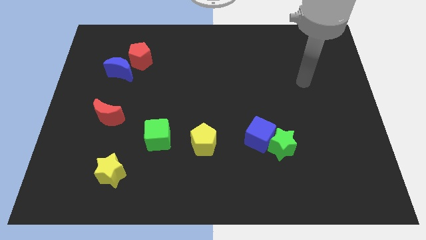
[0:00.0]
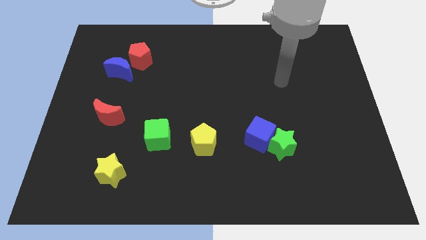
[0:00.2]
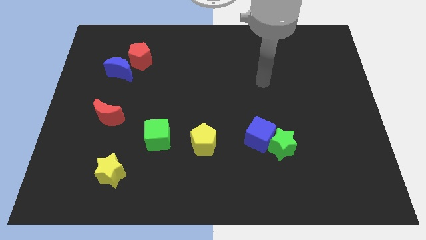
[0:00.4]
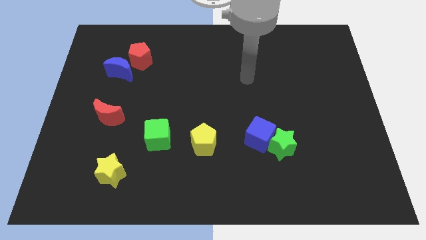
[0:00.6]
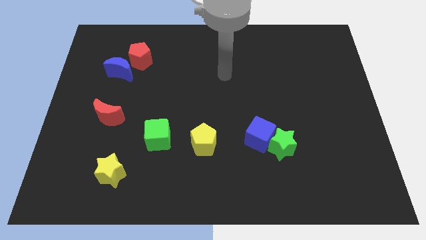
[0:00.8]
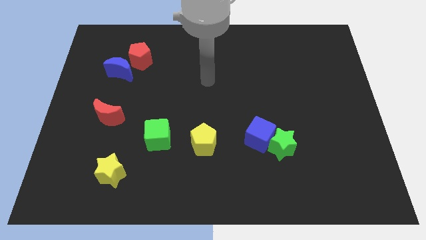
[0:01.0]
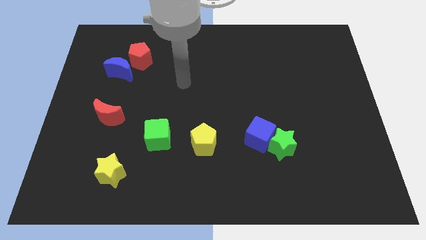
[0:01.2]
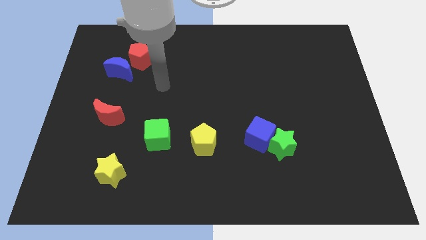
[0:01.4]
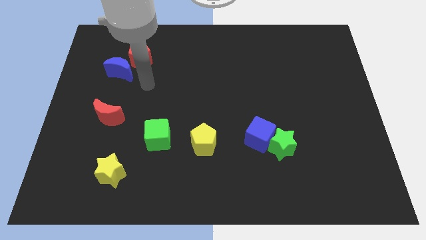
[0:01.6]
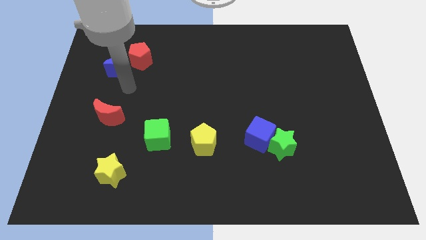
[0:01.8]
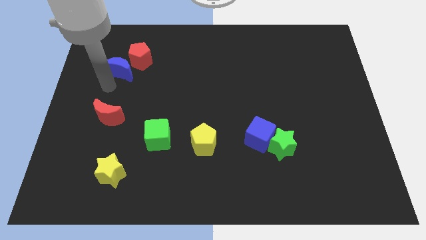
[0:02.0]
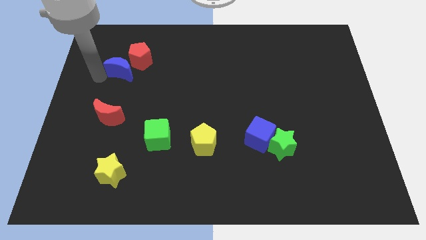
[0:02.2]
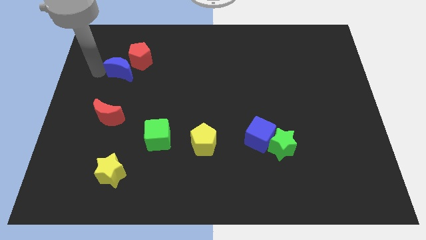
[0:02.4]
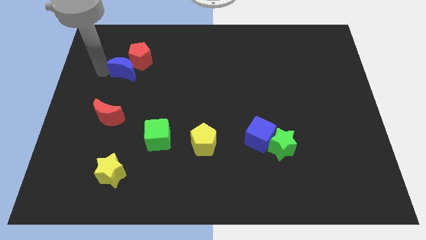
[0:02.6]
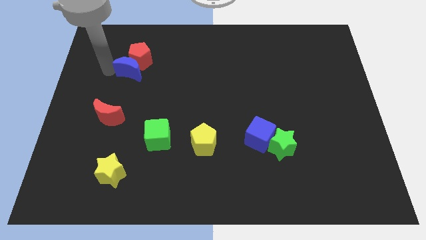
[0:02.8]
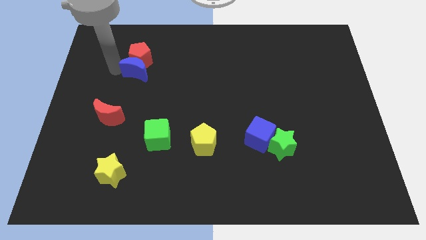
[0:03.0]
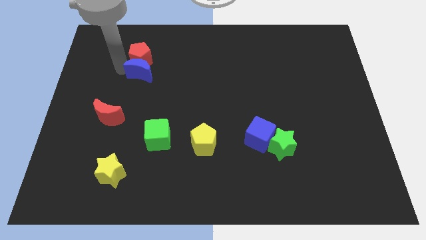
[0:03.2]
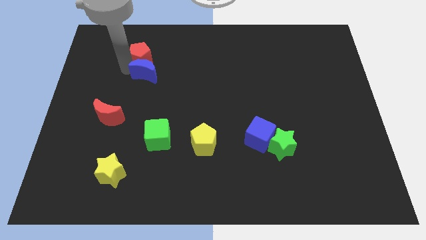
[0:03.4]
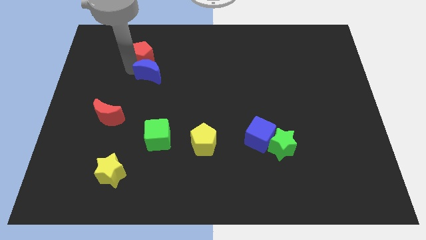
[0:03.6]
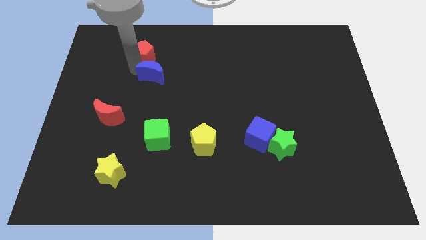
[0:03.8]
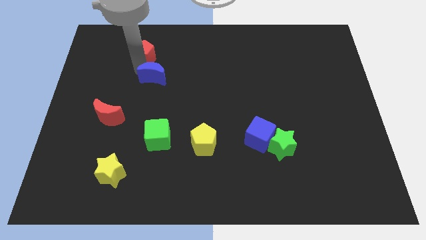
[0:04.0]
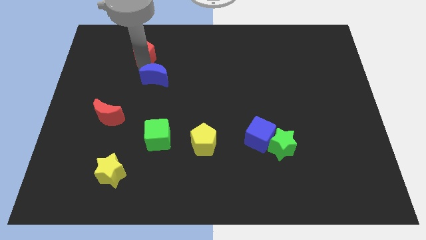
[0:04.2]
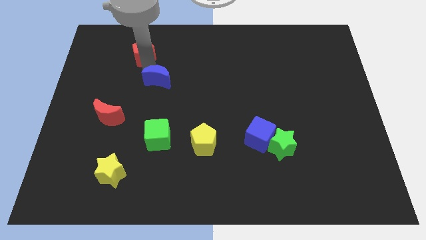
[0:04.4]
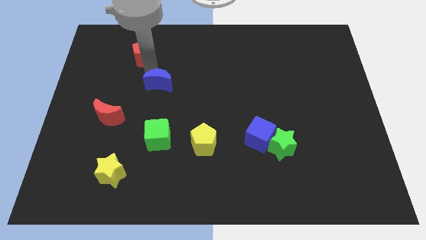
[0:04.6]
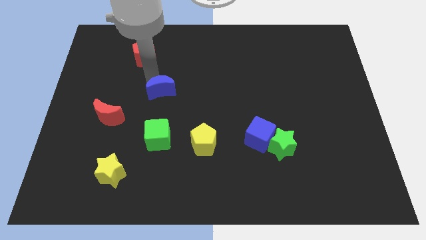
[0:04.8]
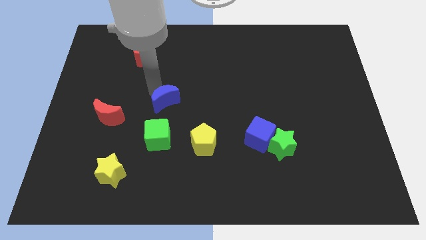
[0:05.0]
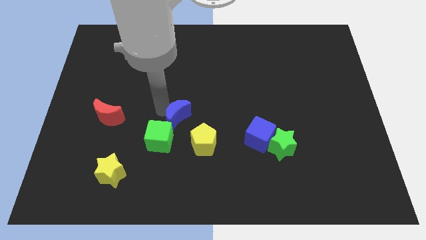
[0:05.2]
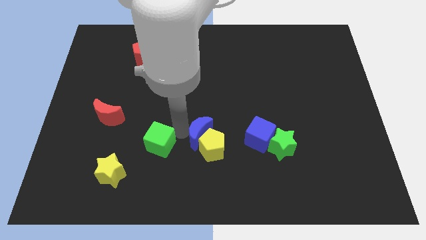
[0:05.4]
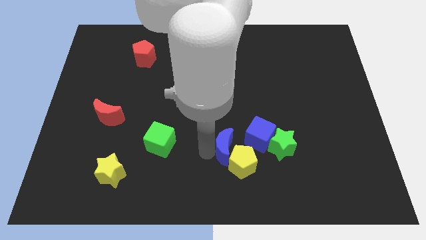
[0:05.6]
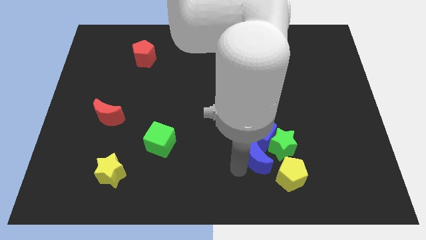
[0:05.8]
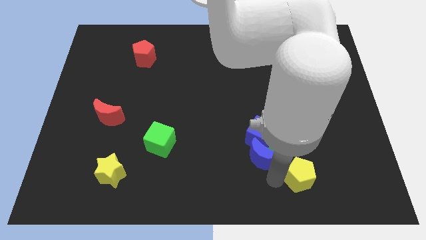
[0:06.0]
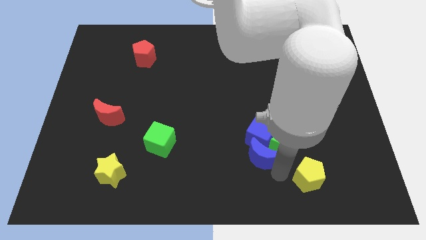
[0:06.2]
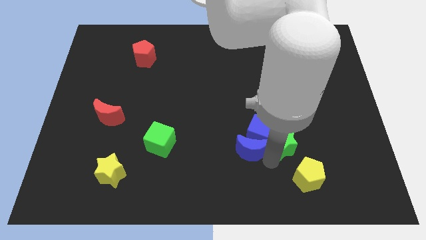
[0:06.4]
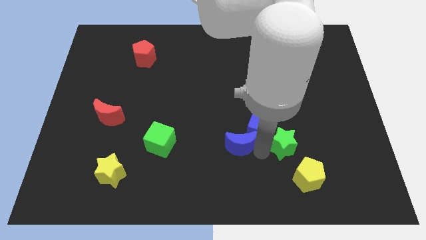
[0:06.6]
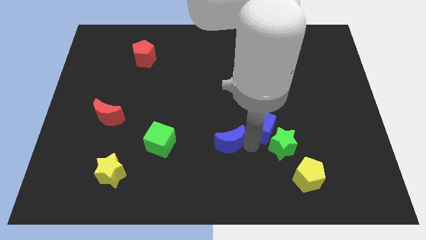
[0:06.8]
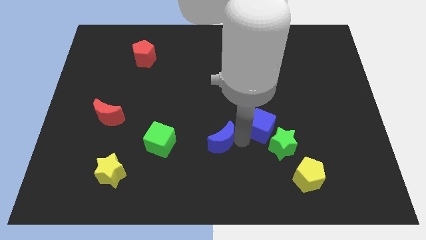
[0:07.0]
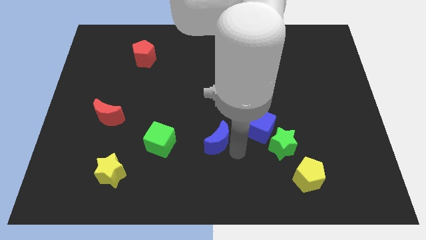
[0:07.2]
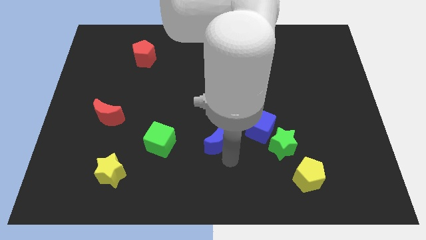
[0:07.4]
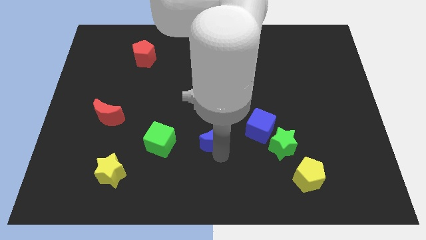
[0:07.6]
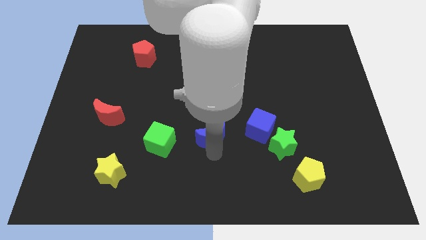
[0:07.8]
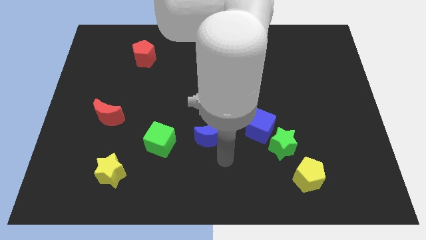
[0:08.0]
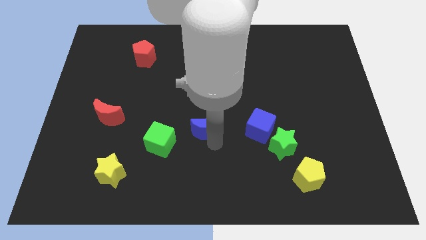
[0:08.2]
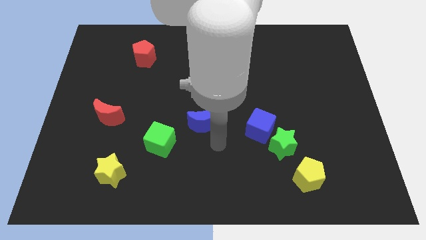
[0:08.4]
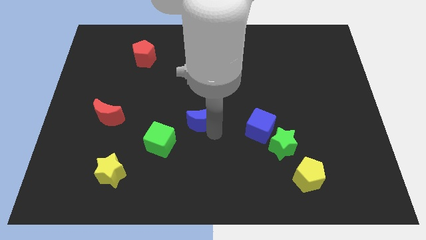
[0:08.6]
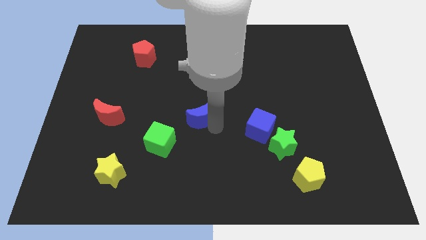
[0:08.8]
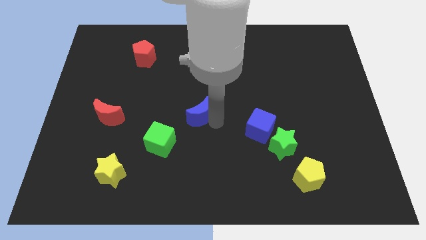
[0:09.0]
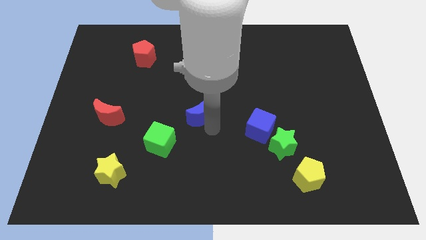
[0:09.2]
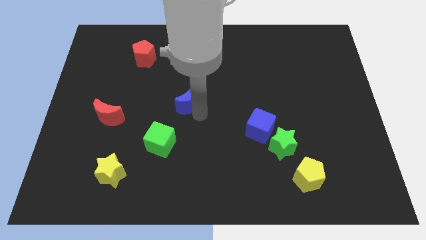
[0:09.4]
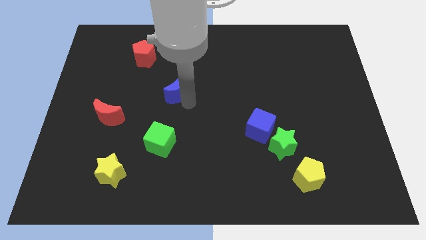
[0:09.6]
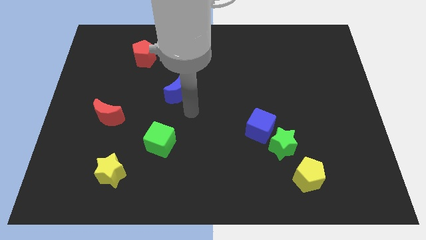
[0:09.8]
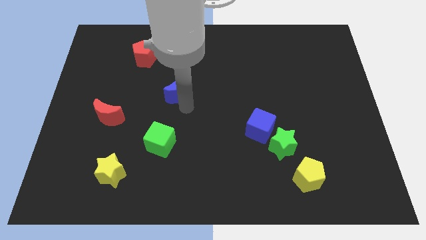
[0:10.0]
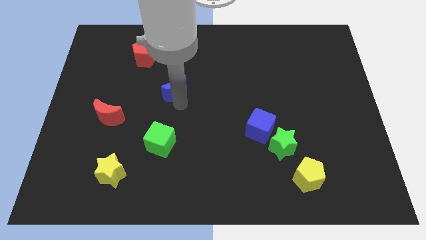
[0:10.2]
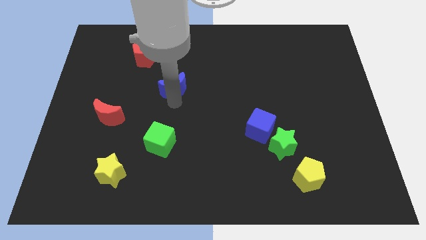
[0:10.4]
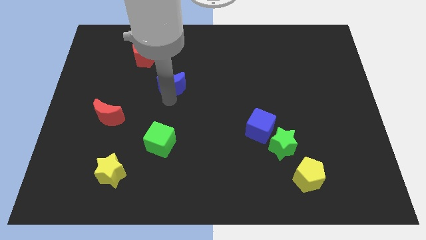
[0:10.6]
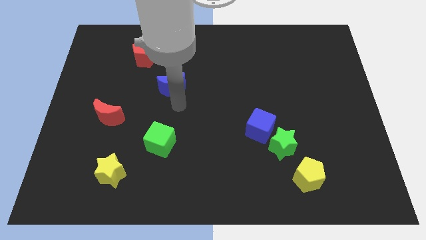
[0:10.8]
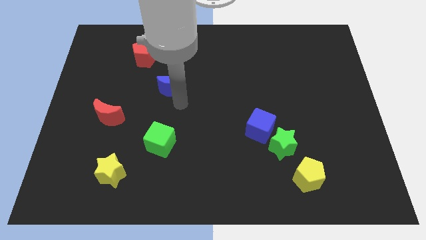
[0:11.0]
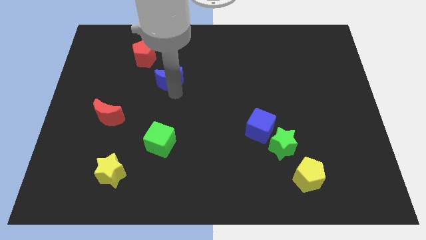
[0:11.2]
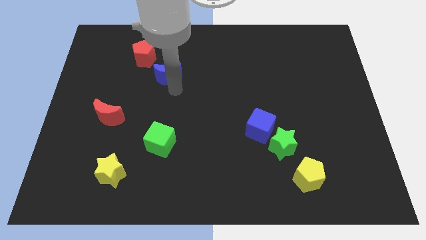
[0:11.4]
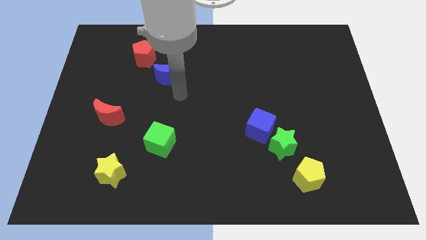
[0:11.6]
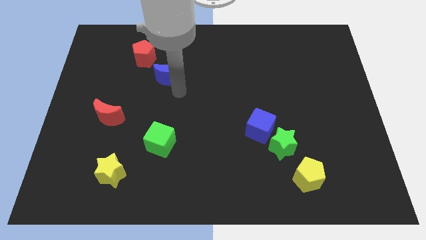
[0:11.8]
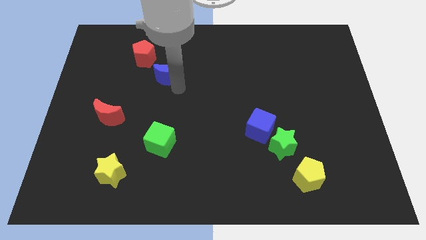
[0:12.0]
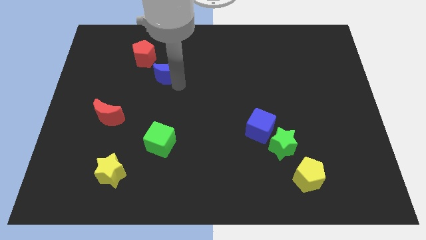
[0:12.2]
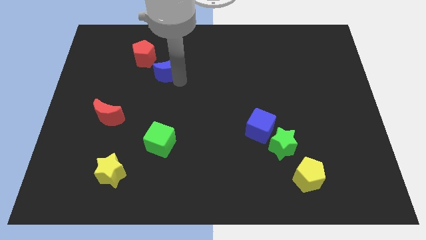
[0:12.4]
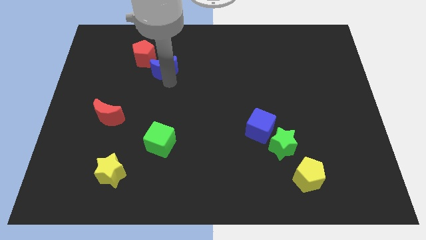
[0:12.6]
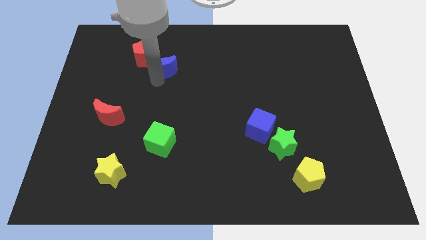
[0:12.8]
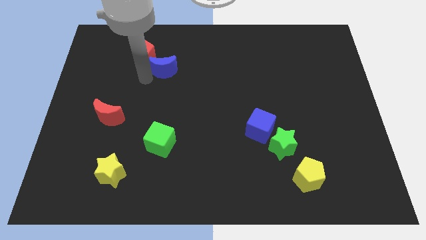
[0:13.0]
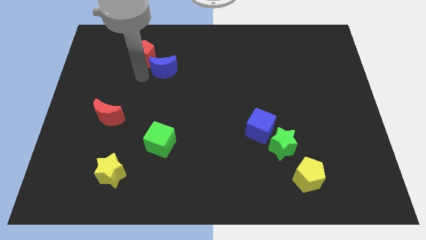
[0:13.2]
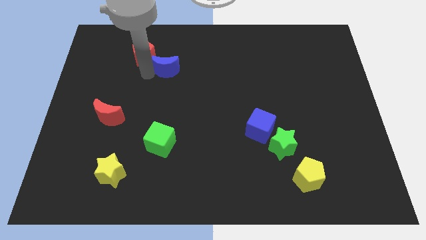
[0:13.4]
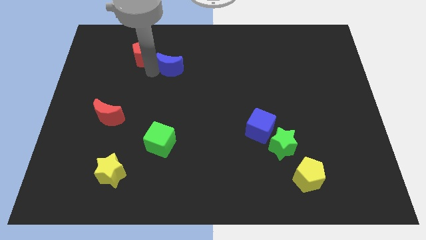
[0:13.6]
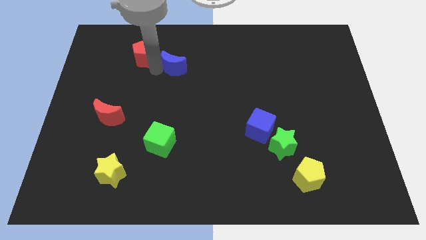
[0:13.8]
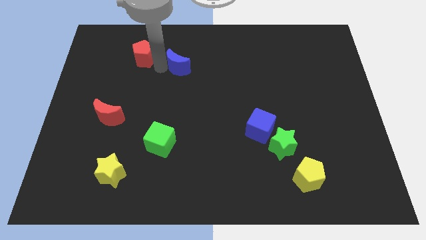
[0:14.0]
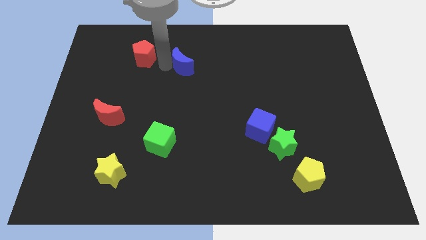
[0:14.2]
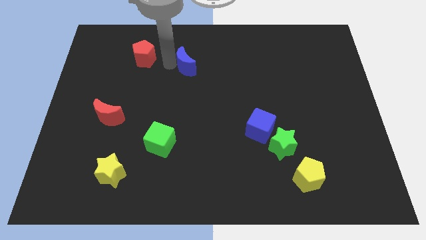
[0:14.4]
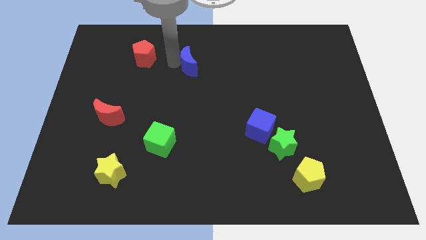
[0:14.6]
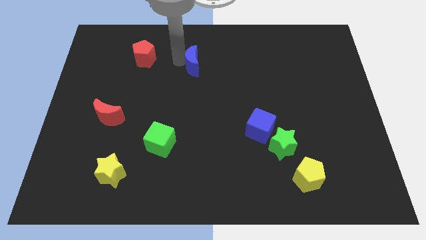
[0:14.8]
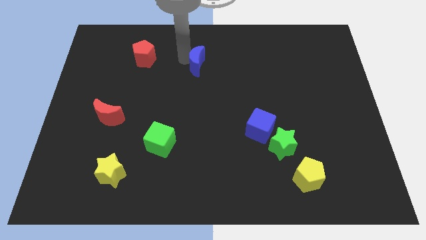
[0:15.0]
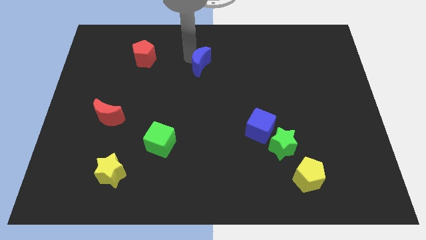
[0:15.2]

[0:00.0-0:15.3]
slide the blue moon right

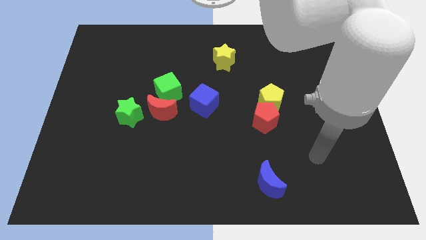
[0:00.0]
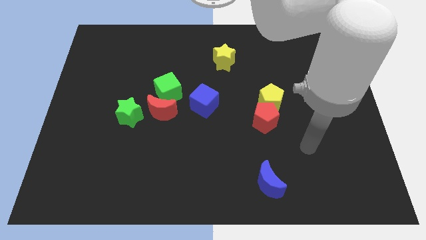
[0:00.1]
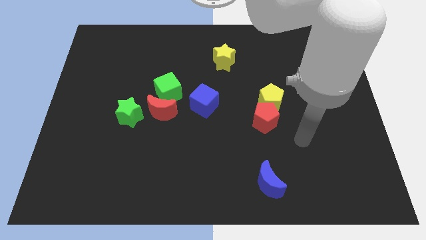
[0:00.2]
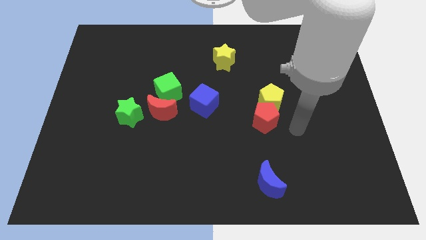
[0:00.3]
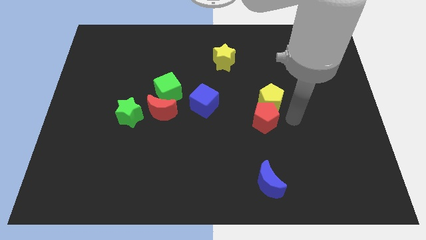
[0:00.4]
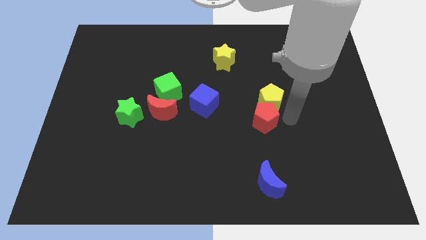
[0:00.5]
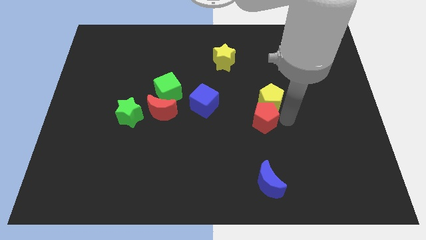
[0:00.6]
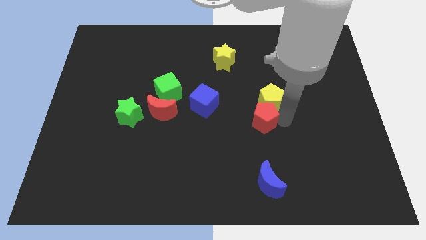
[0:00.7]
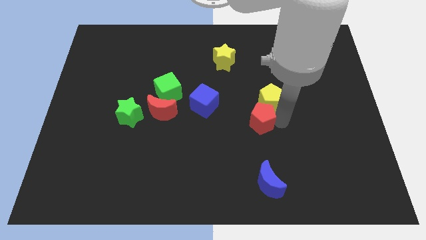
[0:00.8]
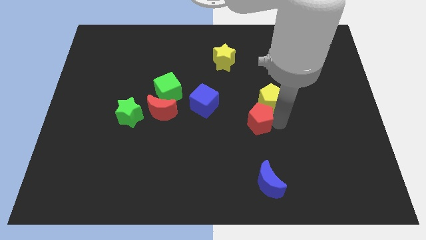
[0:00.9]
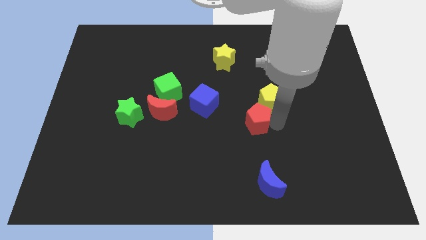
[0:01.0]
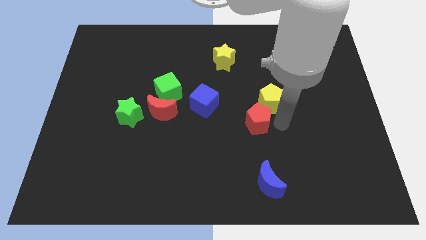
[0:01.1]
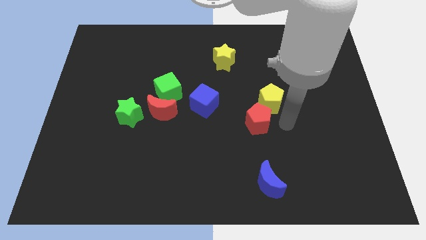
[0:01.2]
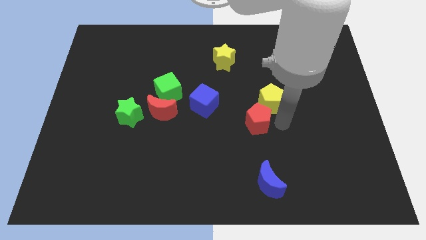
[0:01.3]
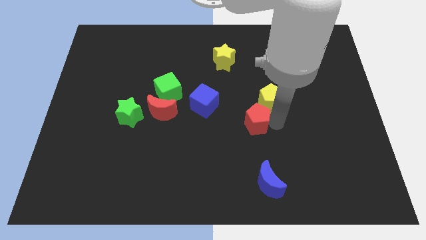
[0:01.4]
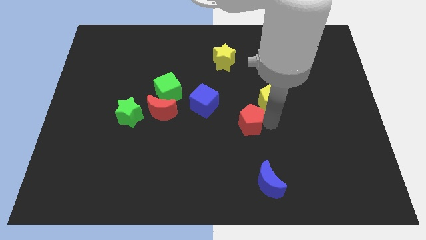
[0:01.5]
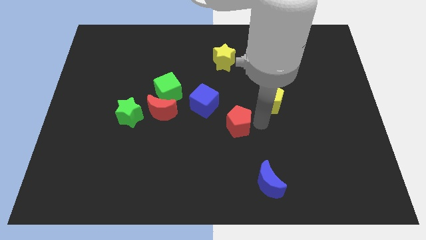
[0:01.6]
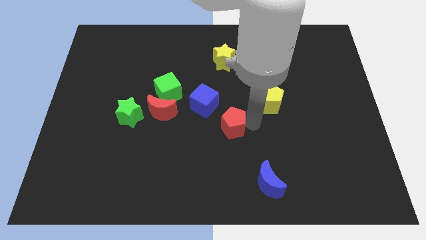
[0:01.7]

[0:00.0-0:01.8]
slightly slide the red pentagon to the left
